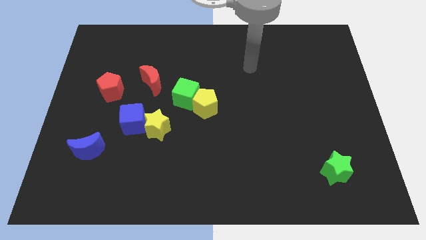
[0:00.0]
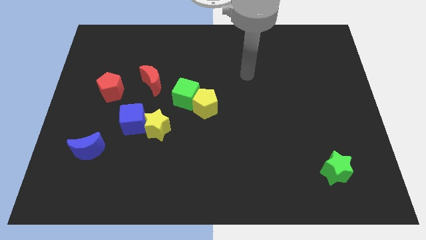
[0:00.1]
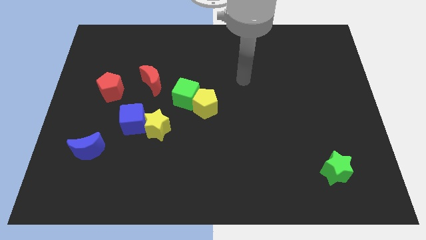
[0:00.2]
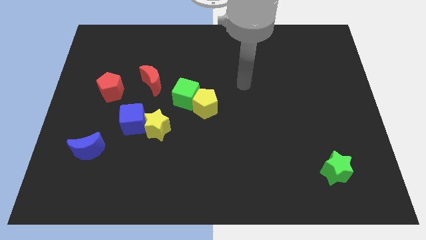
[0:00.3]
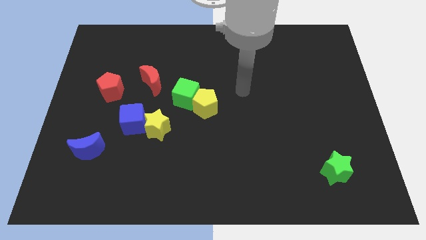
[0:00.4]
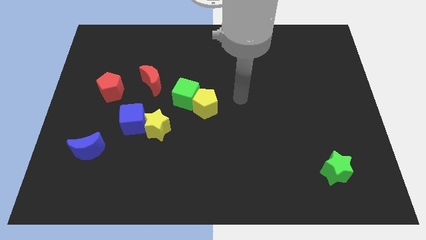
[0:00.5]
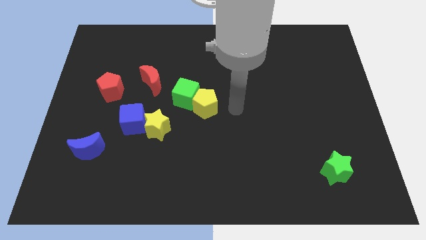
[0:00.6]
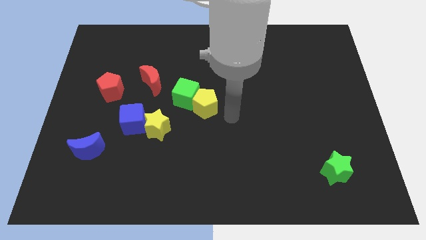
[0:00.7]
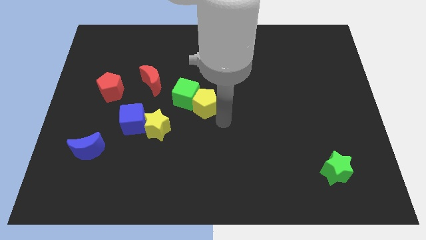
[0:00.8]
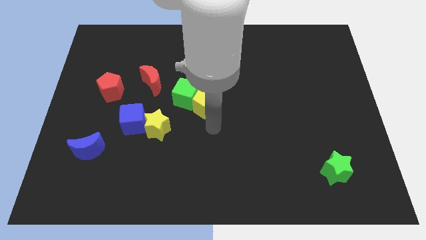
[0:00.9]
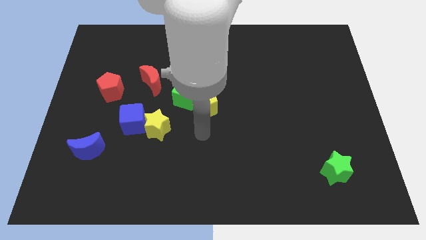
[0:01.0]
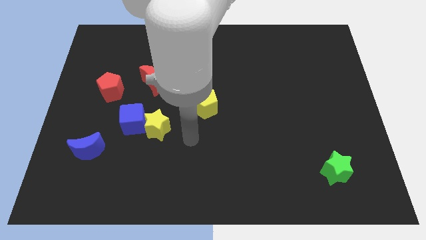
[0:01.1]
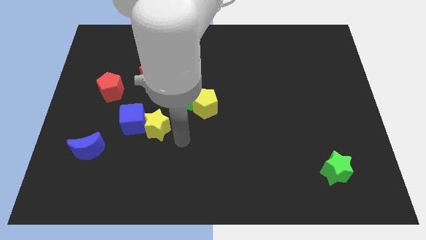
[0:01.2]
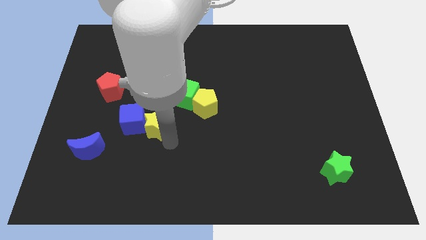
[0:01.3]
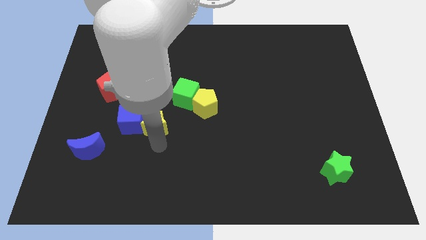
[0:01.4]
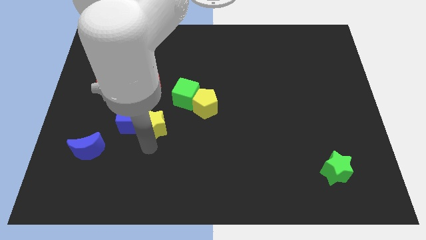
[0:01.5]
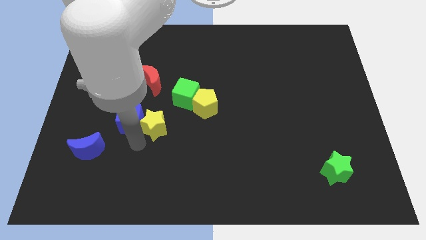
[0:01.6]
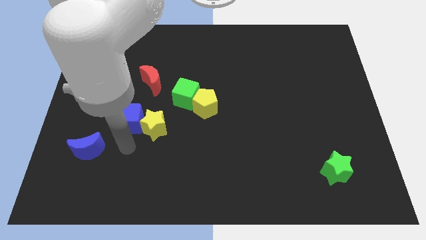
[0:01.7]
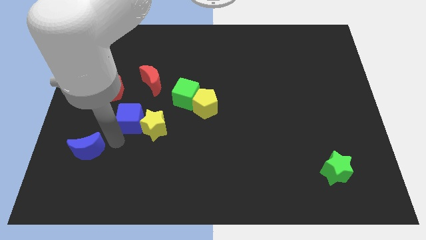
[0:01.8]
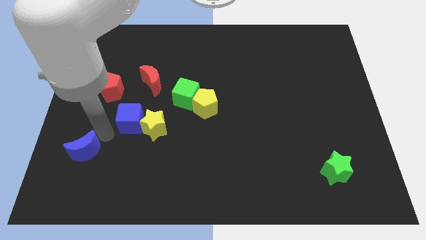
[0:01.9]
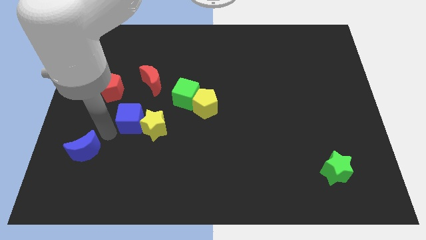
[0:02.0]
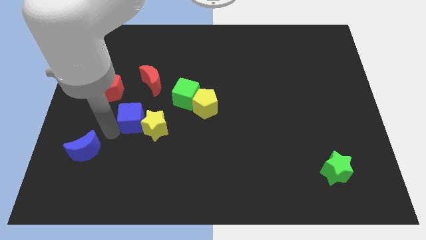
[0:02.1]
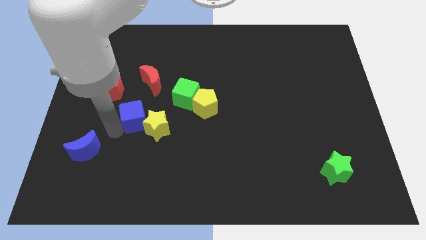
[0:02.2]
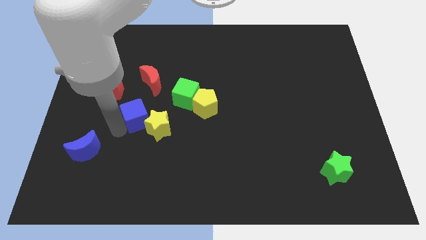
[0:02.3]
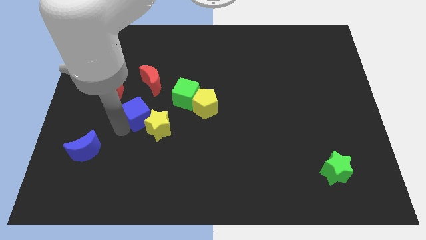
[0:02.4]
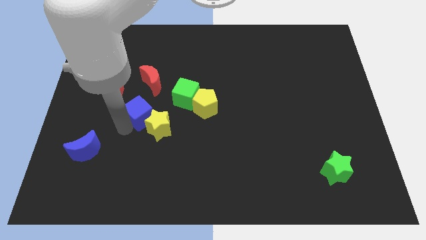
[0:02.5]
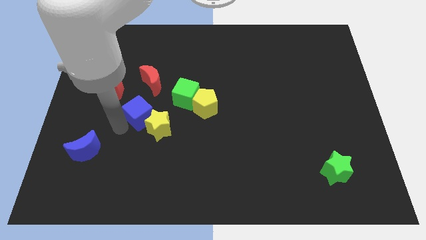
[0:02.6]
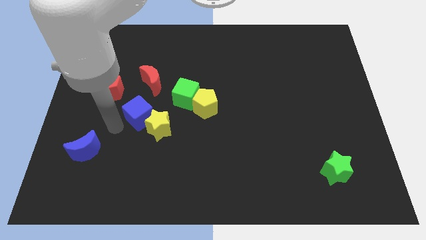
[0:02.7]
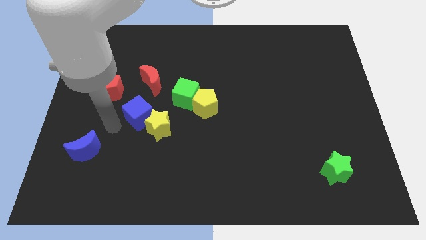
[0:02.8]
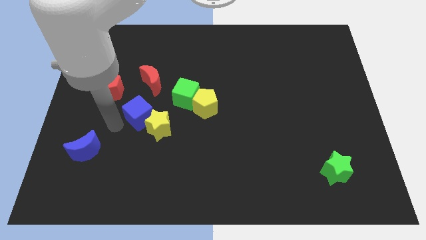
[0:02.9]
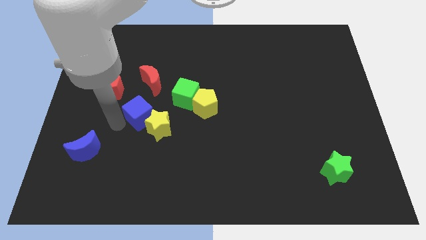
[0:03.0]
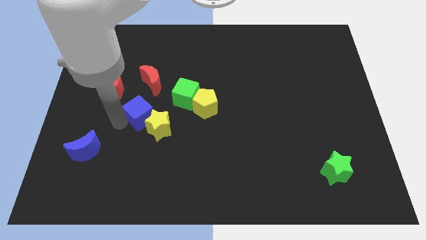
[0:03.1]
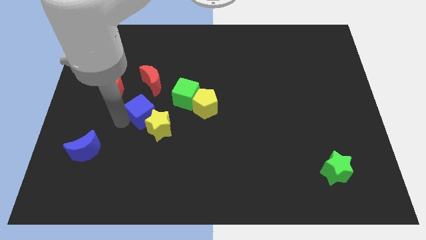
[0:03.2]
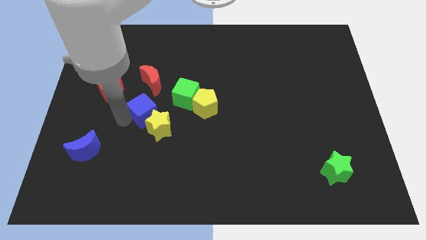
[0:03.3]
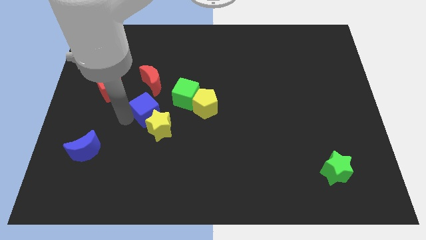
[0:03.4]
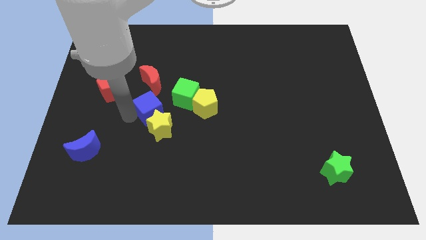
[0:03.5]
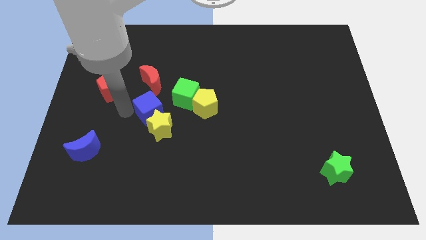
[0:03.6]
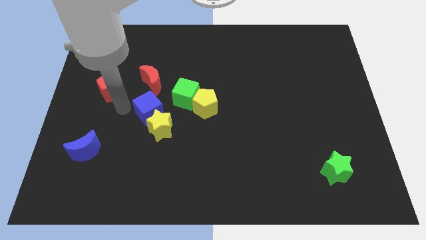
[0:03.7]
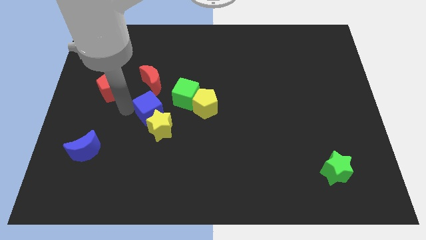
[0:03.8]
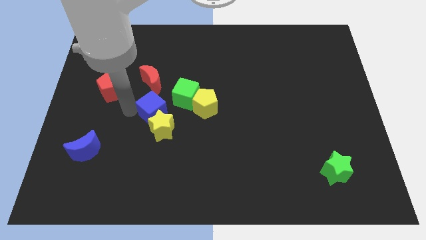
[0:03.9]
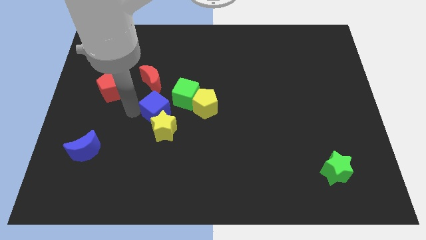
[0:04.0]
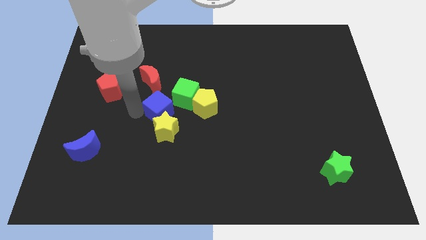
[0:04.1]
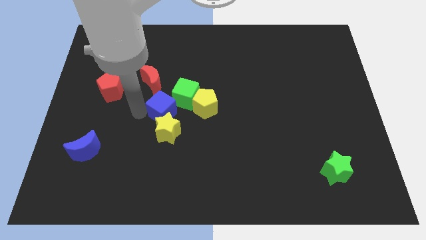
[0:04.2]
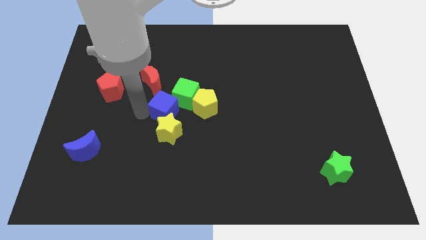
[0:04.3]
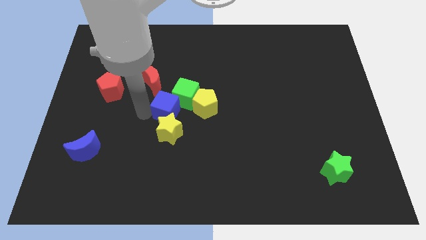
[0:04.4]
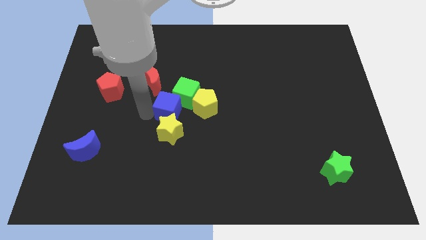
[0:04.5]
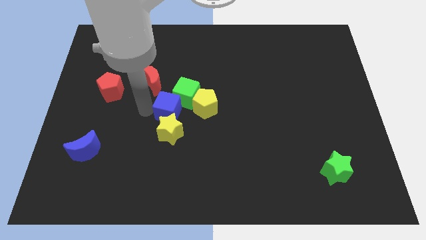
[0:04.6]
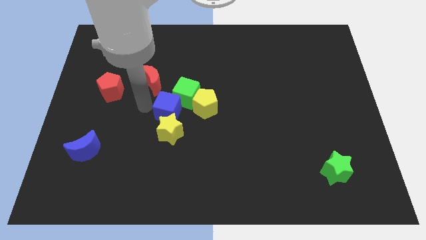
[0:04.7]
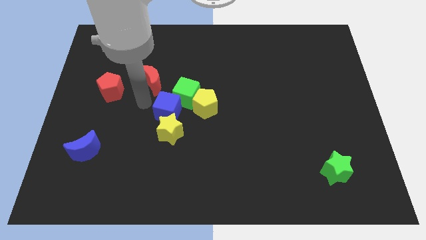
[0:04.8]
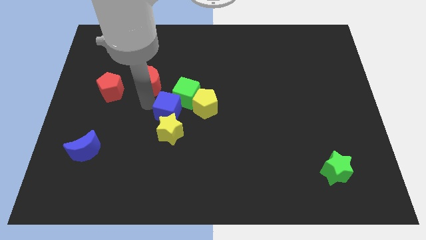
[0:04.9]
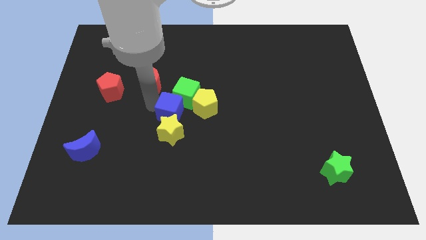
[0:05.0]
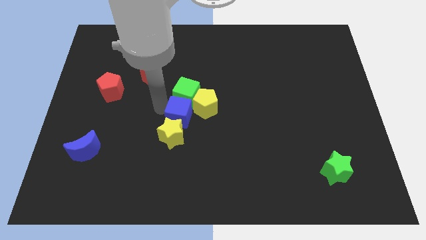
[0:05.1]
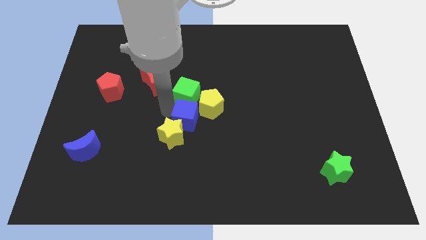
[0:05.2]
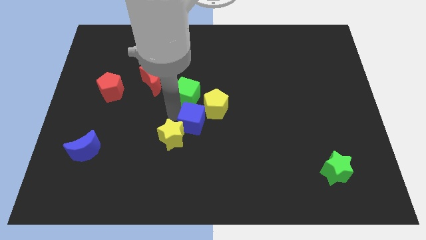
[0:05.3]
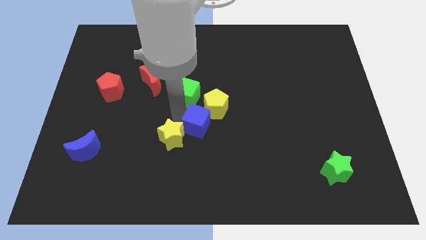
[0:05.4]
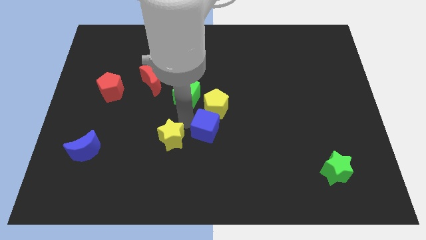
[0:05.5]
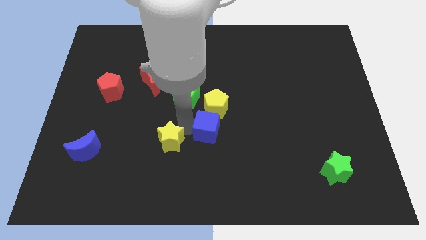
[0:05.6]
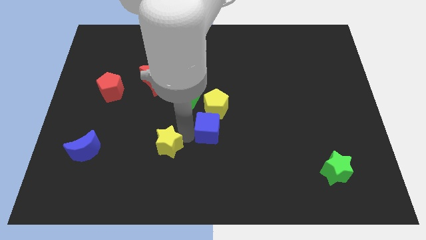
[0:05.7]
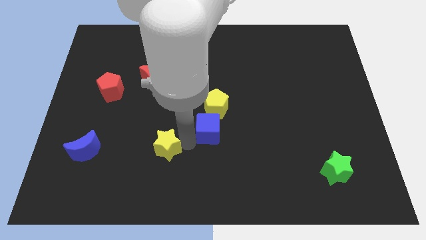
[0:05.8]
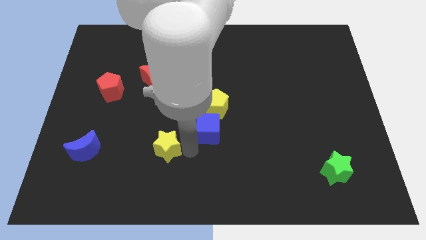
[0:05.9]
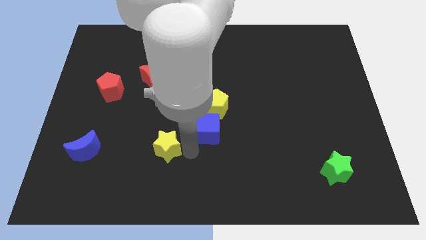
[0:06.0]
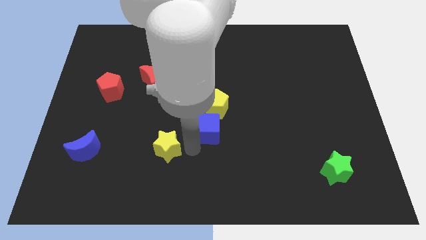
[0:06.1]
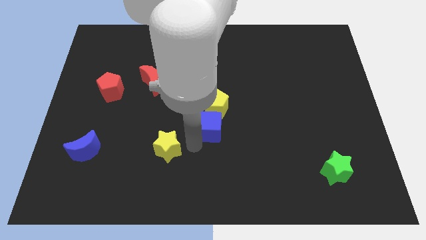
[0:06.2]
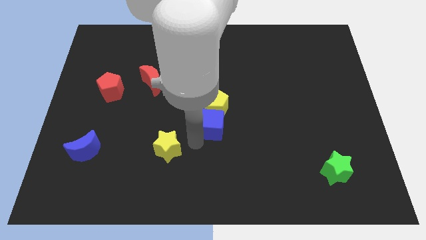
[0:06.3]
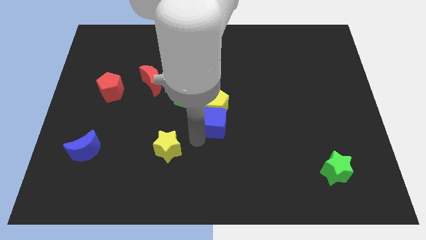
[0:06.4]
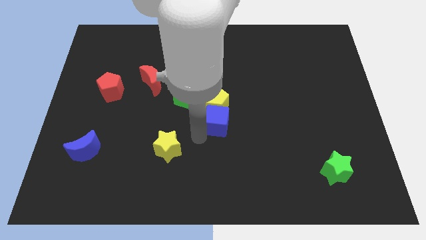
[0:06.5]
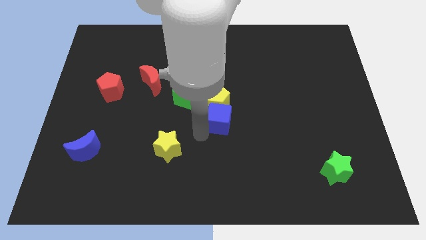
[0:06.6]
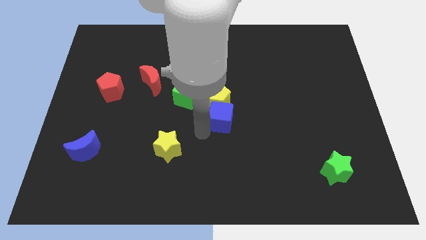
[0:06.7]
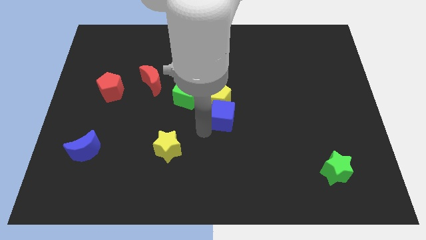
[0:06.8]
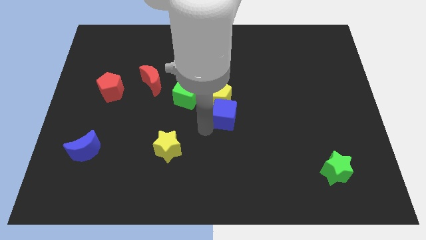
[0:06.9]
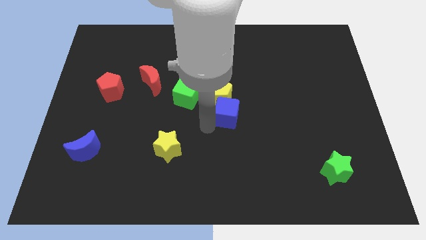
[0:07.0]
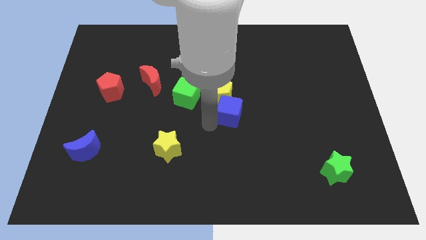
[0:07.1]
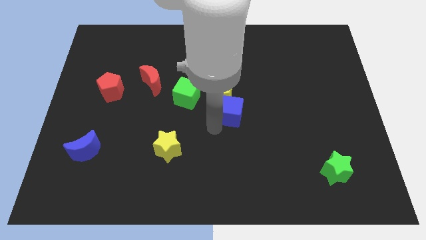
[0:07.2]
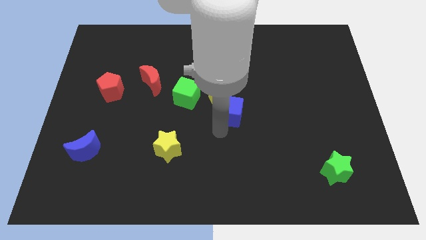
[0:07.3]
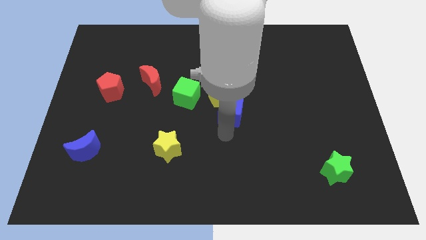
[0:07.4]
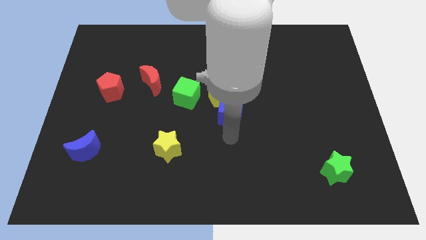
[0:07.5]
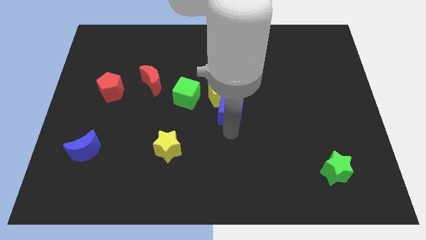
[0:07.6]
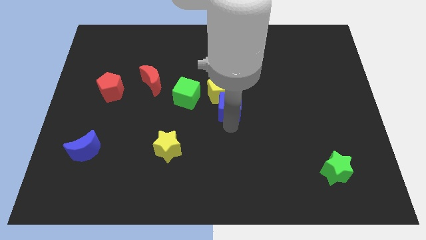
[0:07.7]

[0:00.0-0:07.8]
move the blue cube just right of the green cube
